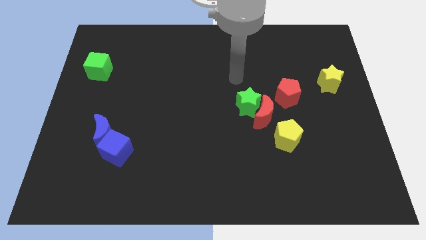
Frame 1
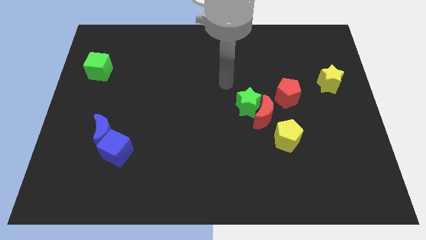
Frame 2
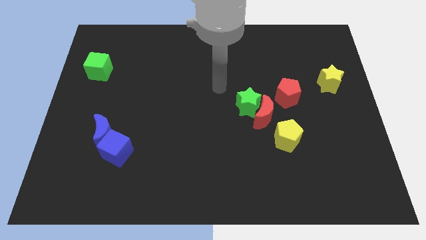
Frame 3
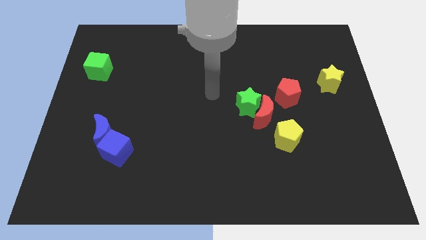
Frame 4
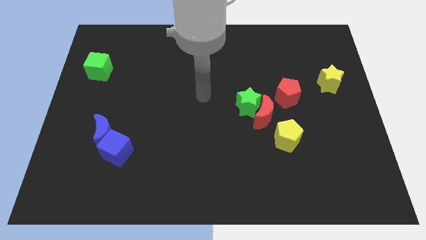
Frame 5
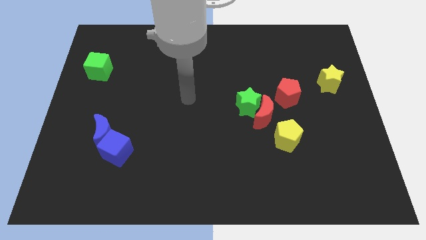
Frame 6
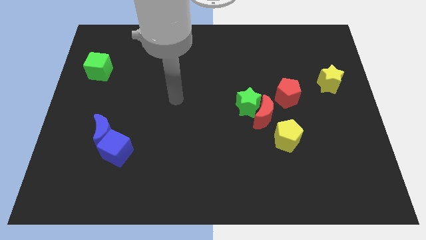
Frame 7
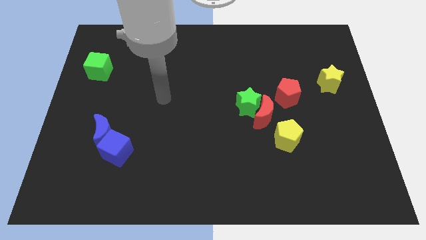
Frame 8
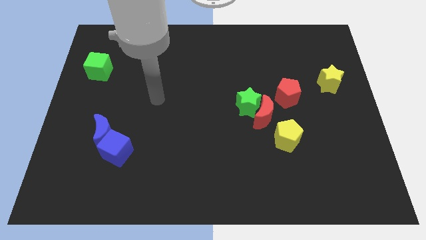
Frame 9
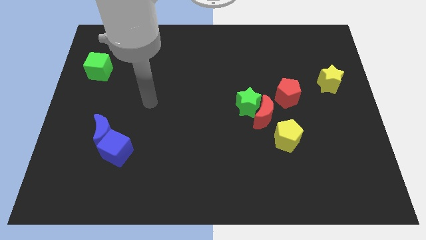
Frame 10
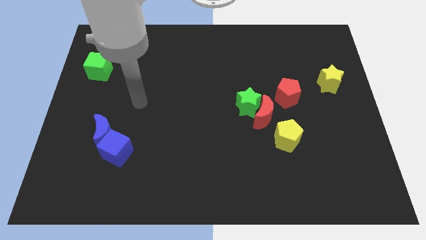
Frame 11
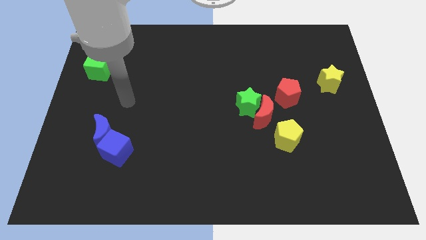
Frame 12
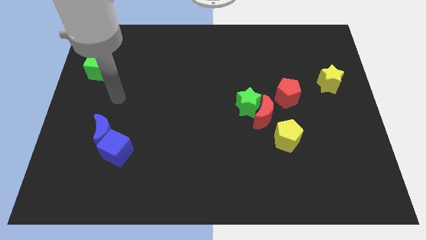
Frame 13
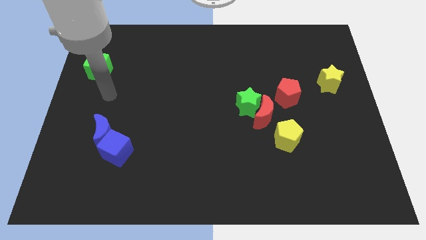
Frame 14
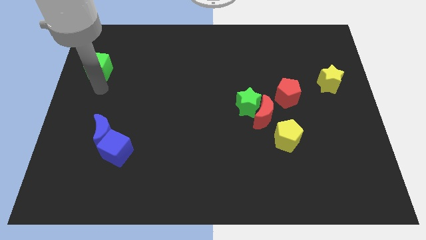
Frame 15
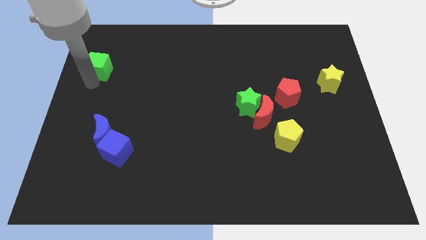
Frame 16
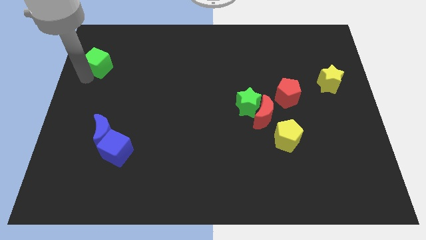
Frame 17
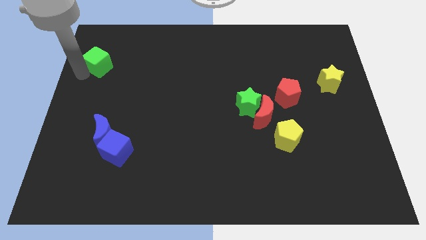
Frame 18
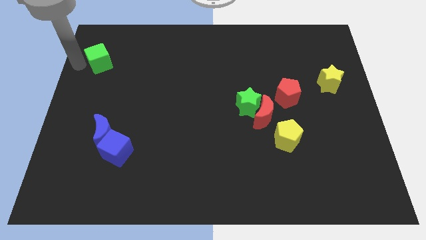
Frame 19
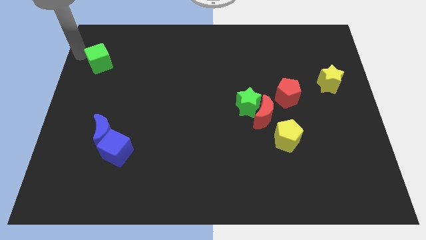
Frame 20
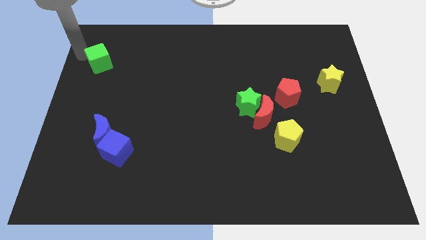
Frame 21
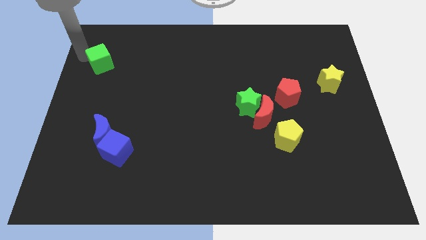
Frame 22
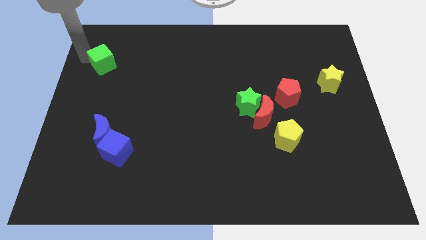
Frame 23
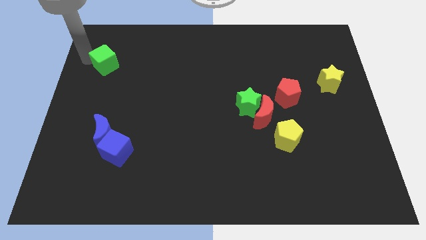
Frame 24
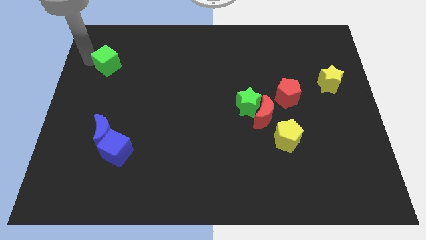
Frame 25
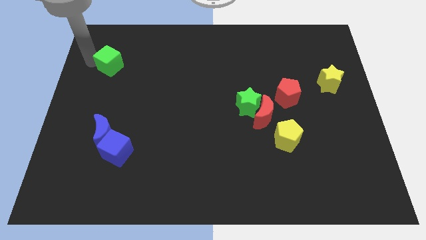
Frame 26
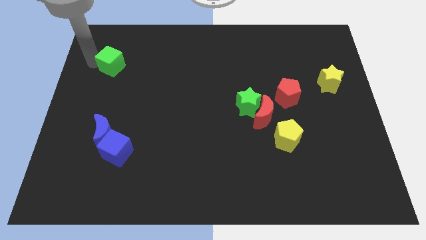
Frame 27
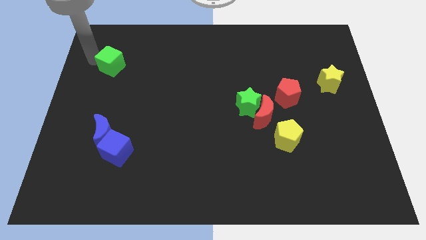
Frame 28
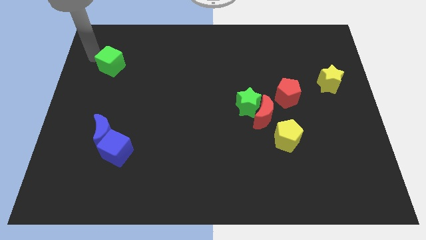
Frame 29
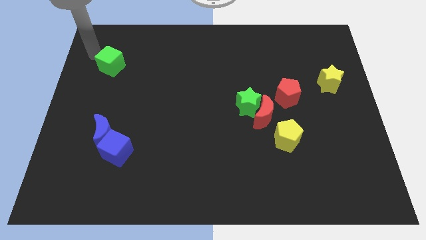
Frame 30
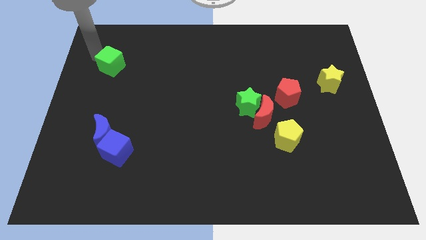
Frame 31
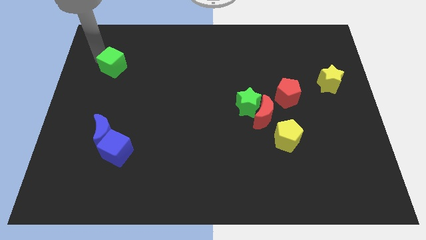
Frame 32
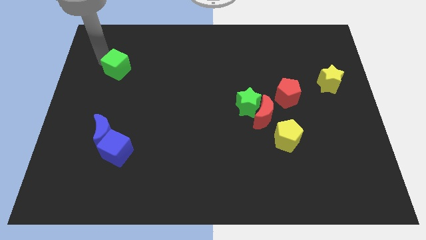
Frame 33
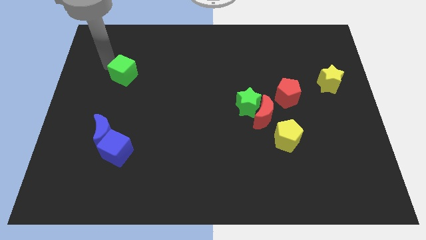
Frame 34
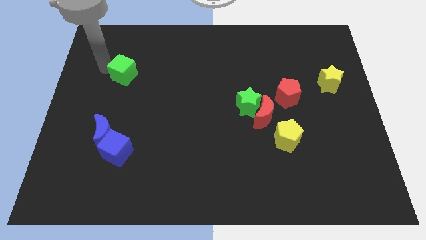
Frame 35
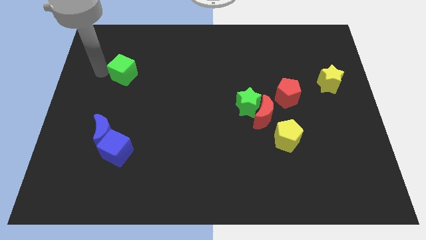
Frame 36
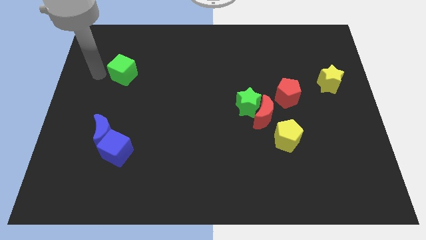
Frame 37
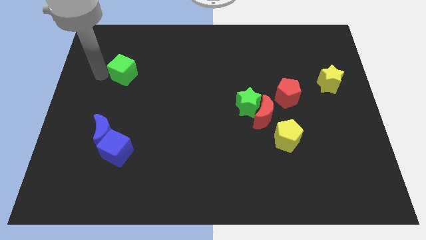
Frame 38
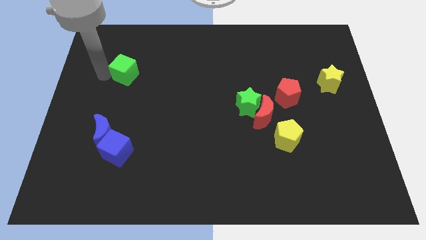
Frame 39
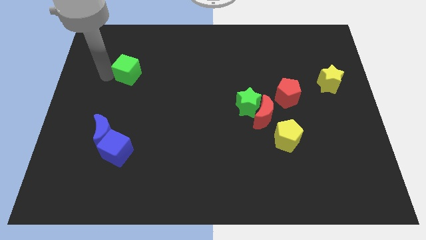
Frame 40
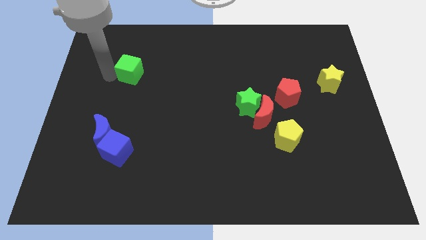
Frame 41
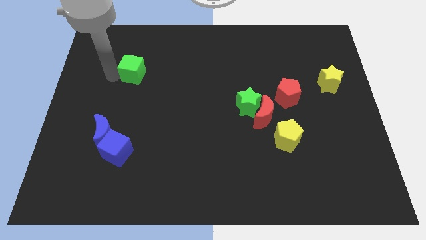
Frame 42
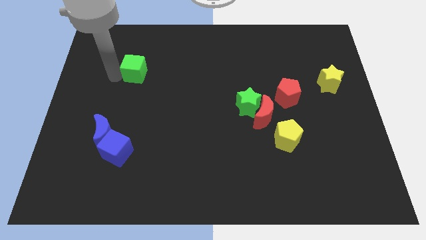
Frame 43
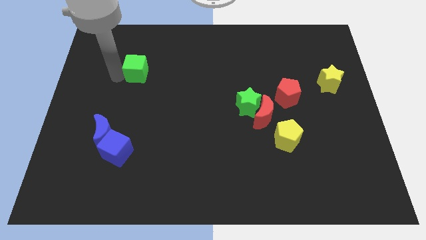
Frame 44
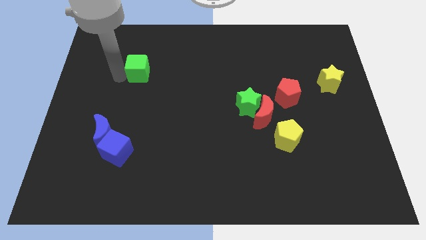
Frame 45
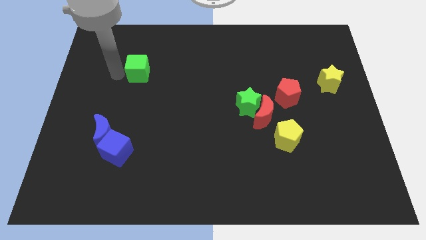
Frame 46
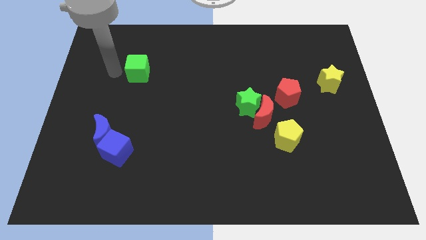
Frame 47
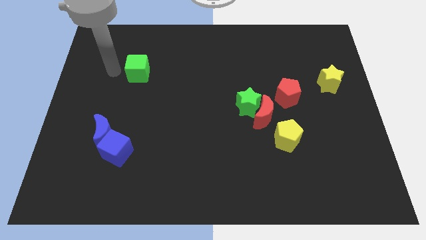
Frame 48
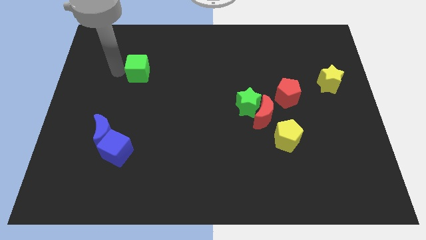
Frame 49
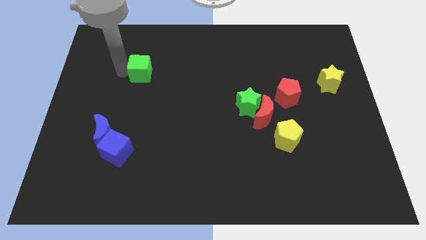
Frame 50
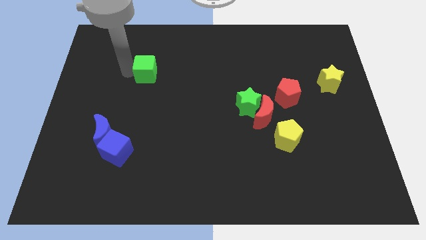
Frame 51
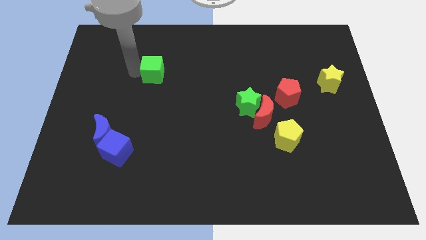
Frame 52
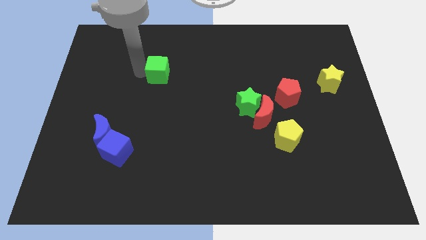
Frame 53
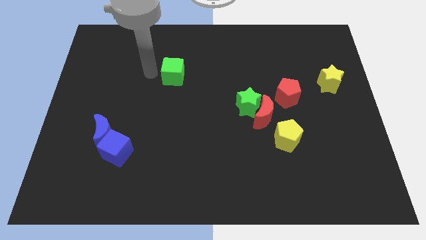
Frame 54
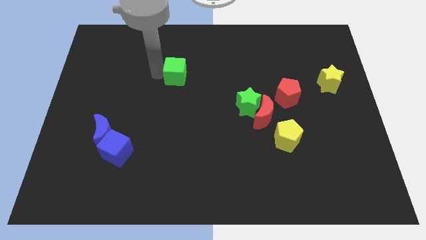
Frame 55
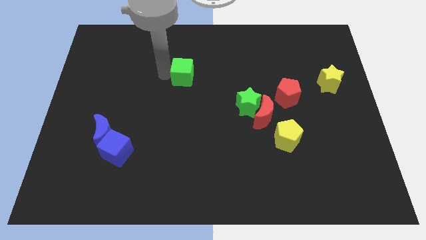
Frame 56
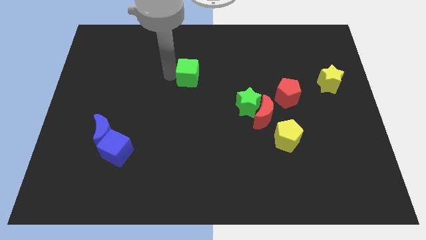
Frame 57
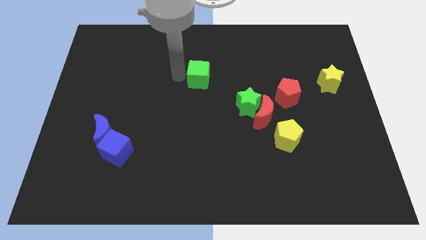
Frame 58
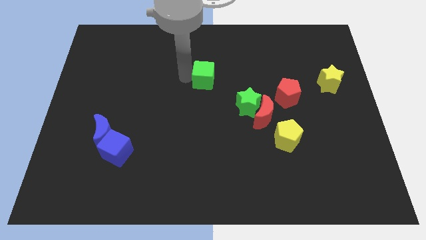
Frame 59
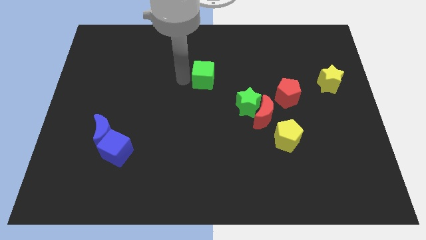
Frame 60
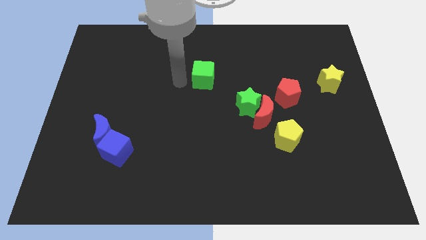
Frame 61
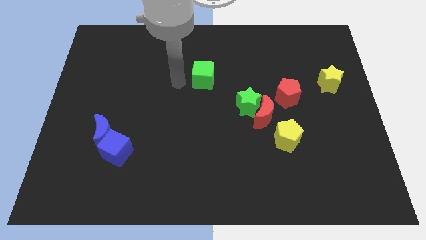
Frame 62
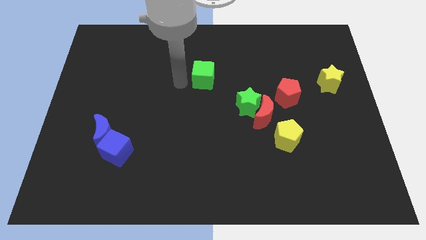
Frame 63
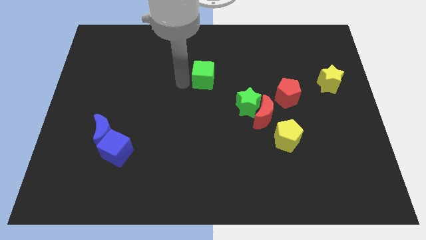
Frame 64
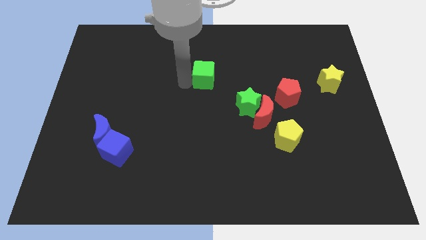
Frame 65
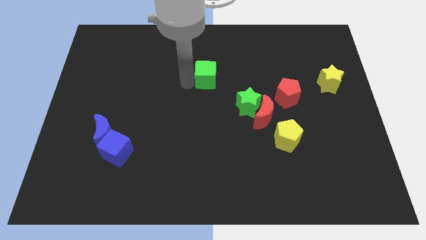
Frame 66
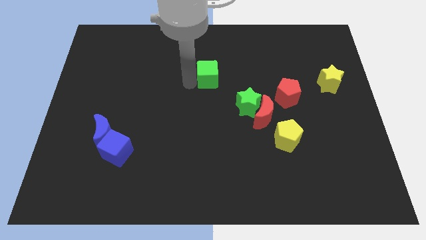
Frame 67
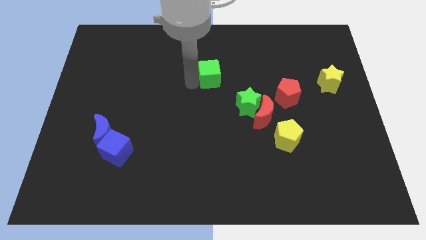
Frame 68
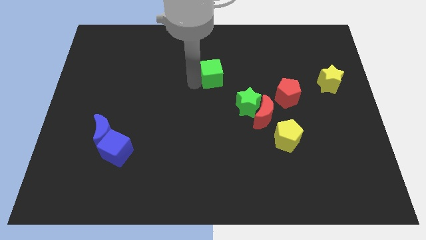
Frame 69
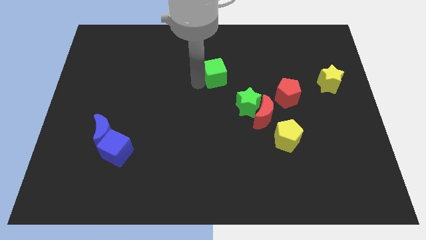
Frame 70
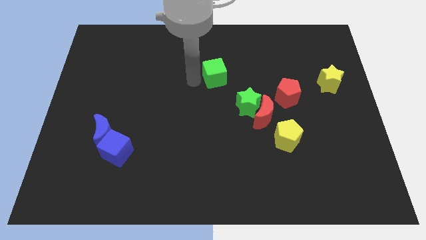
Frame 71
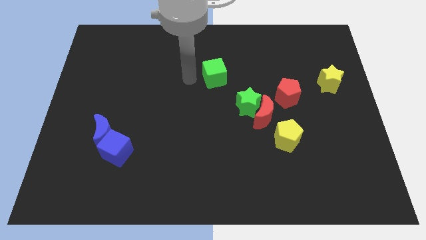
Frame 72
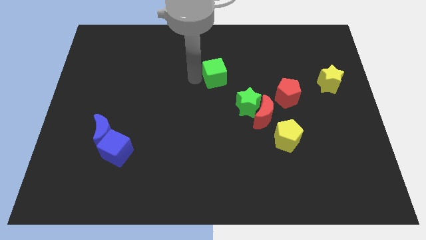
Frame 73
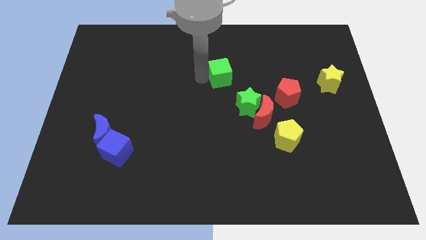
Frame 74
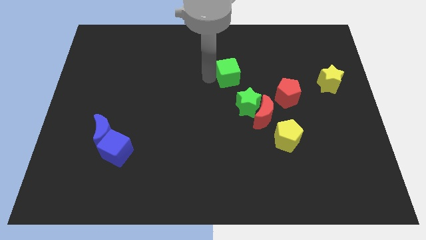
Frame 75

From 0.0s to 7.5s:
push the green cube to the top of the green star

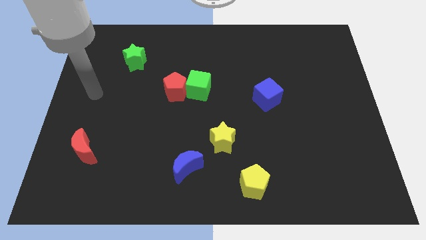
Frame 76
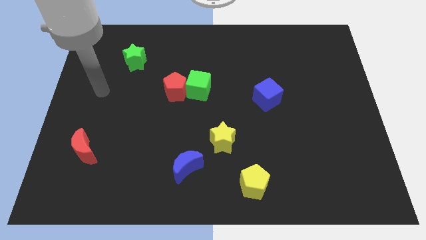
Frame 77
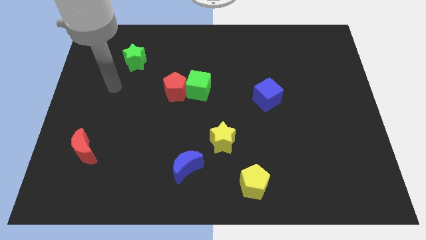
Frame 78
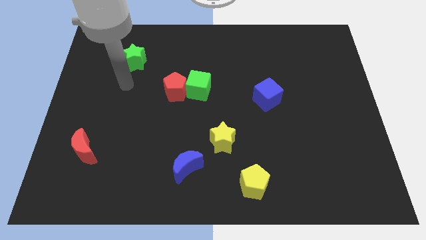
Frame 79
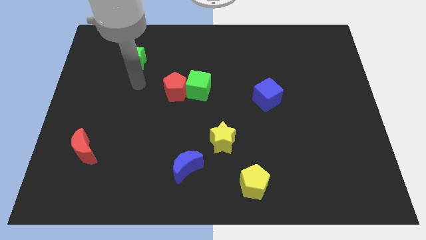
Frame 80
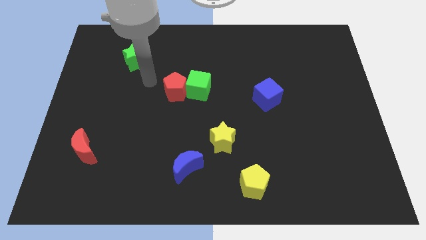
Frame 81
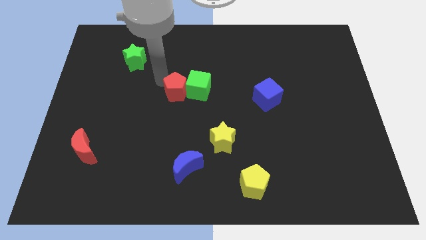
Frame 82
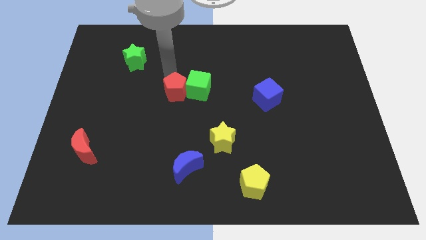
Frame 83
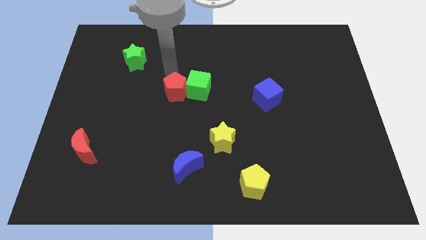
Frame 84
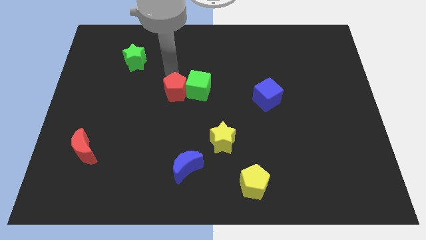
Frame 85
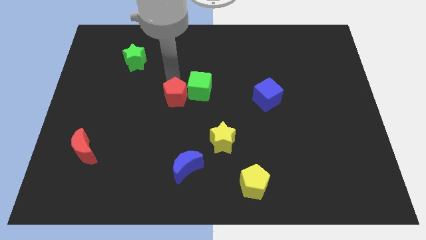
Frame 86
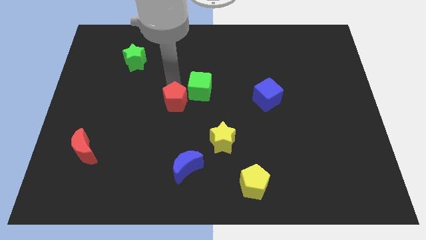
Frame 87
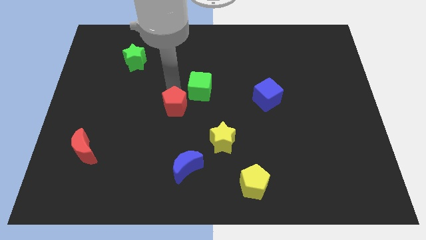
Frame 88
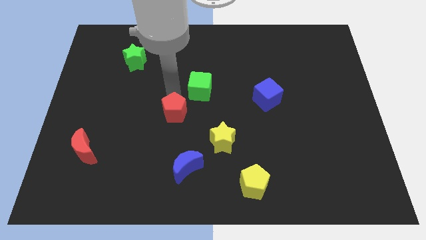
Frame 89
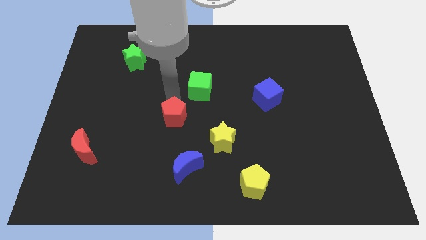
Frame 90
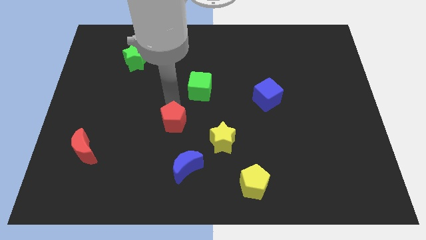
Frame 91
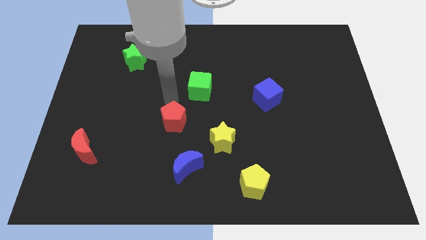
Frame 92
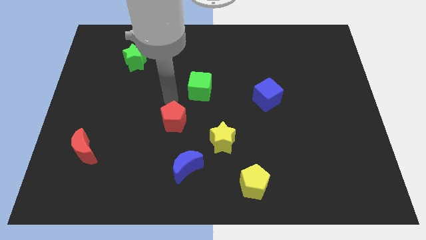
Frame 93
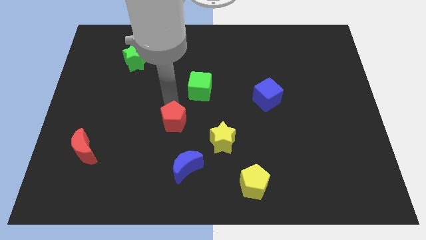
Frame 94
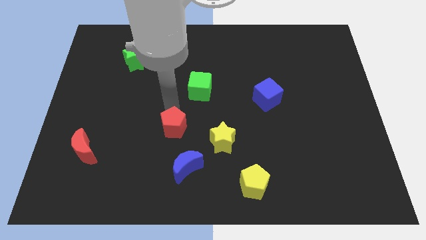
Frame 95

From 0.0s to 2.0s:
slide the red pentagon left of the yellow star
